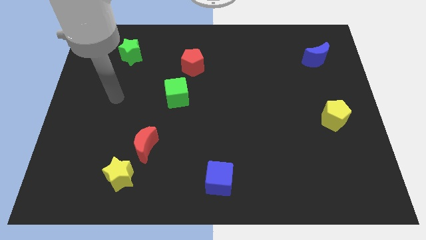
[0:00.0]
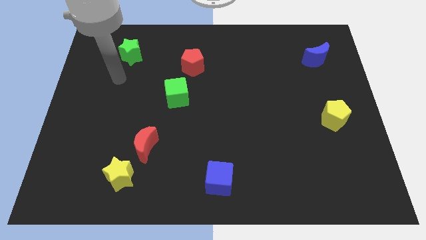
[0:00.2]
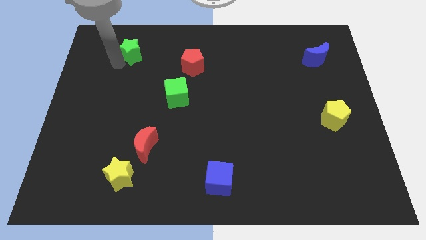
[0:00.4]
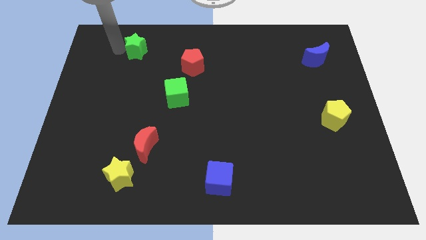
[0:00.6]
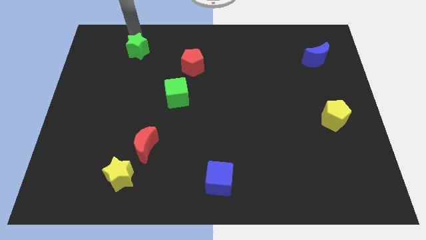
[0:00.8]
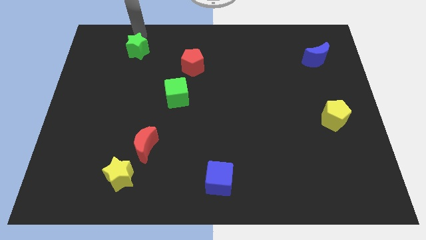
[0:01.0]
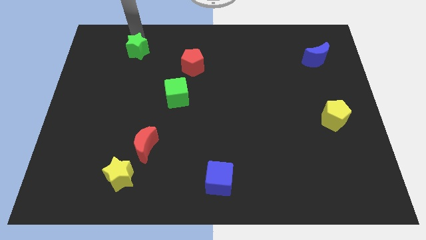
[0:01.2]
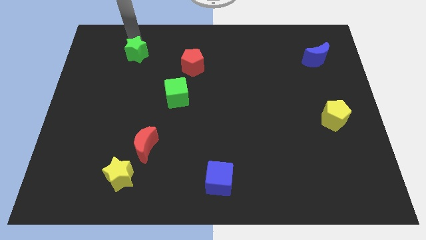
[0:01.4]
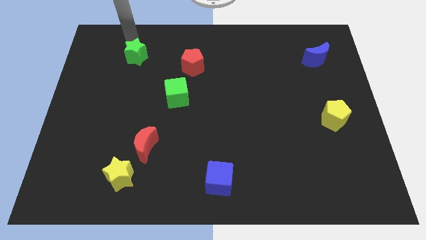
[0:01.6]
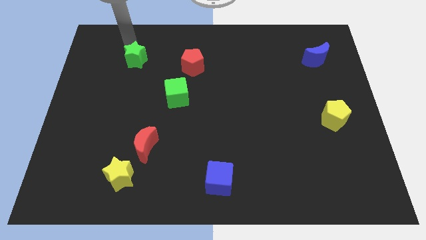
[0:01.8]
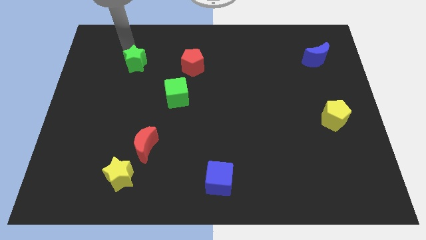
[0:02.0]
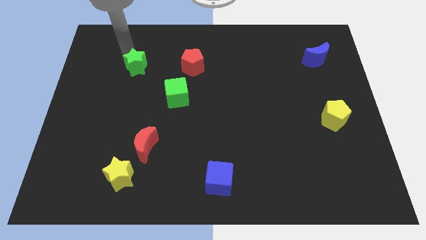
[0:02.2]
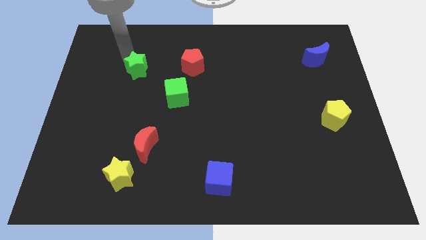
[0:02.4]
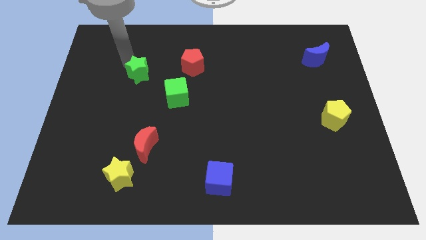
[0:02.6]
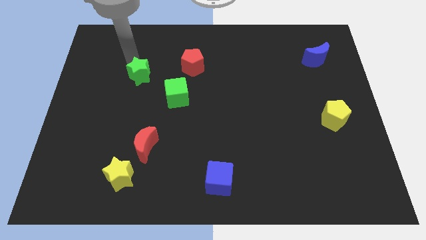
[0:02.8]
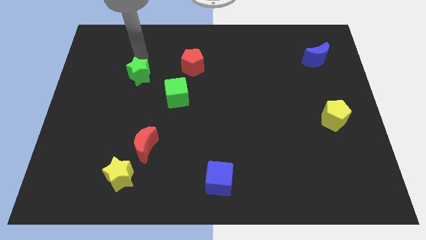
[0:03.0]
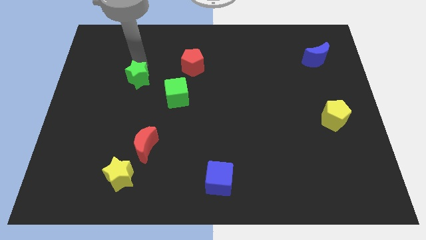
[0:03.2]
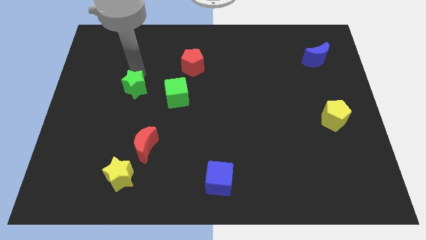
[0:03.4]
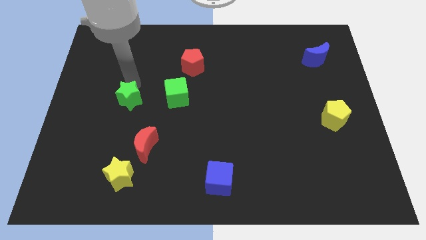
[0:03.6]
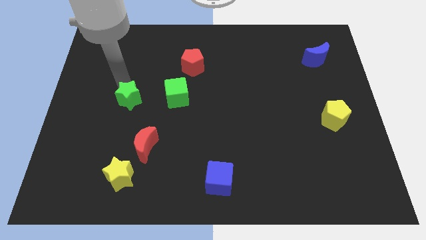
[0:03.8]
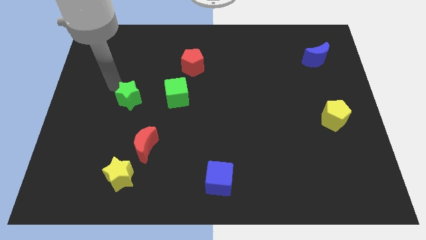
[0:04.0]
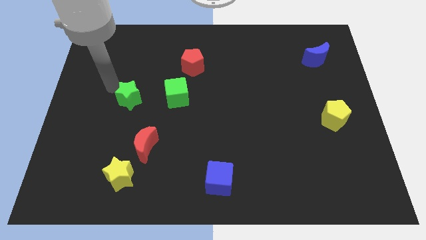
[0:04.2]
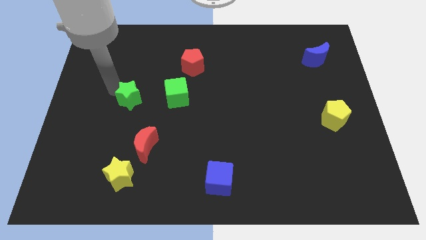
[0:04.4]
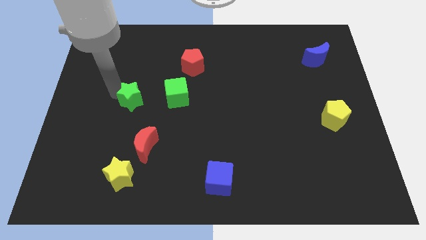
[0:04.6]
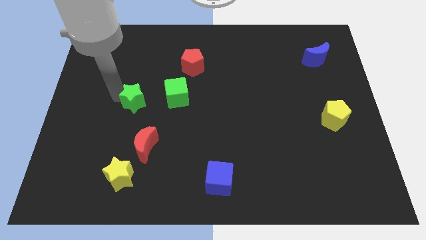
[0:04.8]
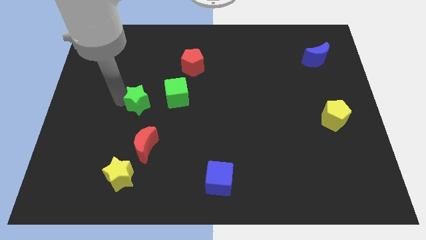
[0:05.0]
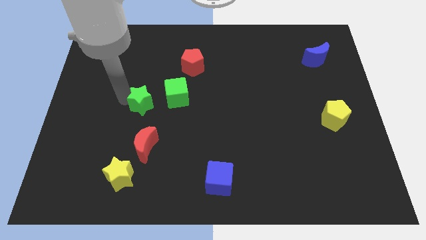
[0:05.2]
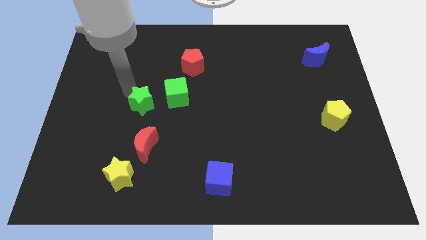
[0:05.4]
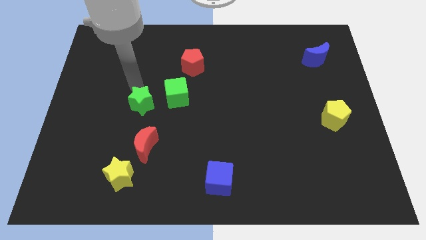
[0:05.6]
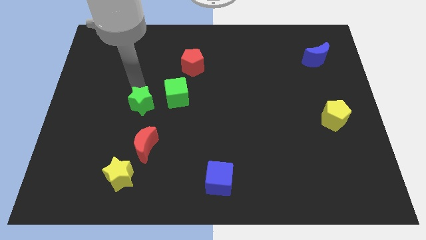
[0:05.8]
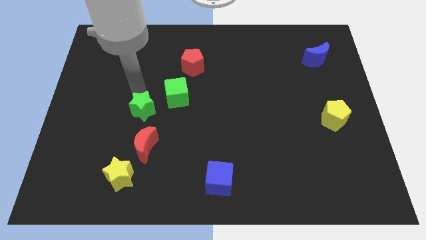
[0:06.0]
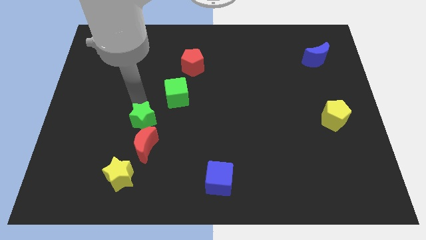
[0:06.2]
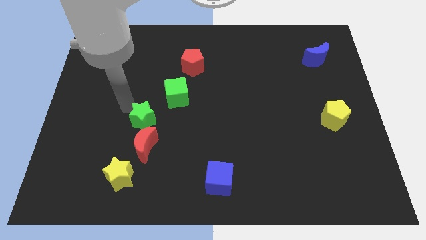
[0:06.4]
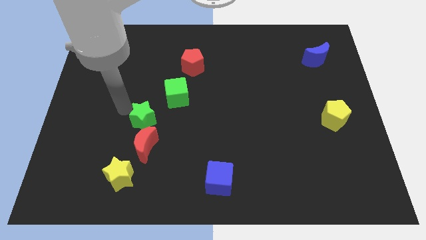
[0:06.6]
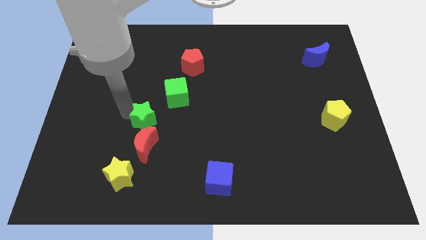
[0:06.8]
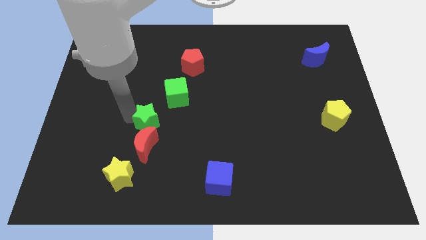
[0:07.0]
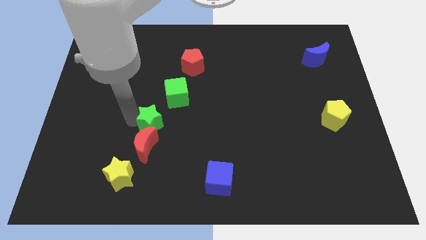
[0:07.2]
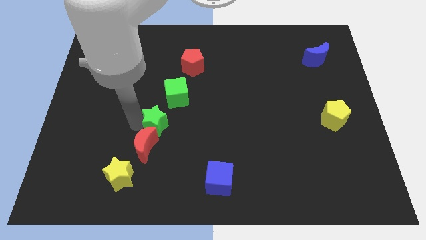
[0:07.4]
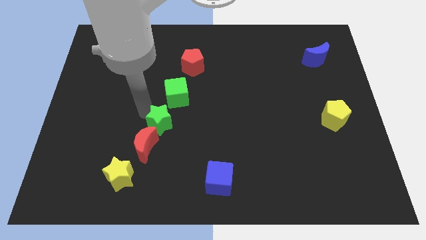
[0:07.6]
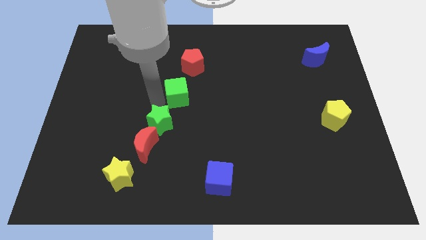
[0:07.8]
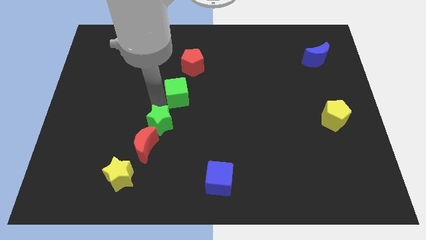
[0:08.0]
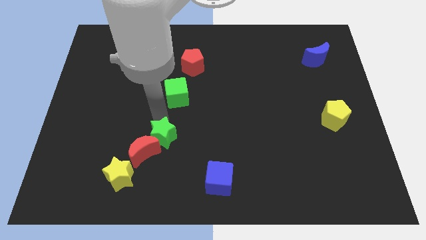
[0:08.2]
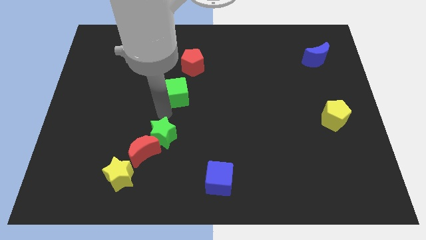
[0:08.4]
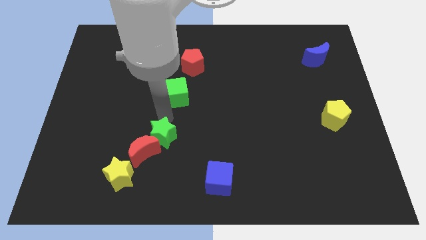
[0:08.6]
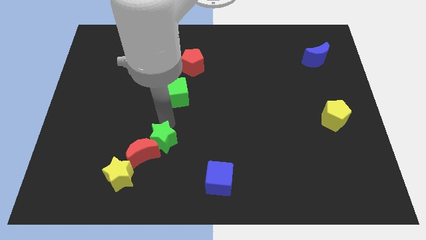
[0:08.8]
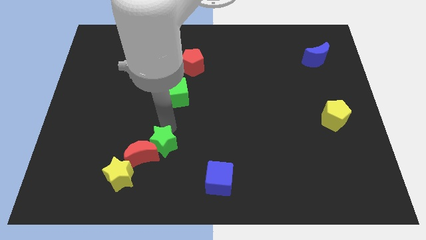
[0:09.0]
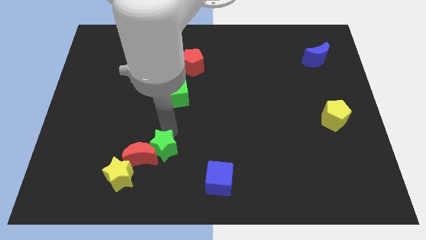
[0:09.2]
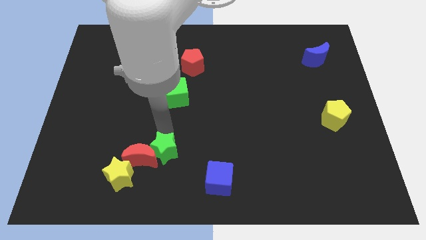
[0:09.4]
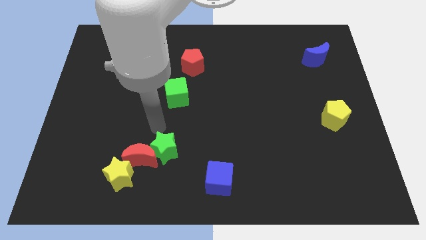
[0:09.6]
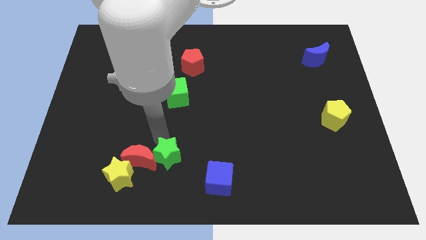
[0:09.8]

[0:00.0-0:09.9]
move the green star to the right side of the yellow star

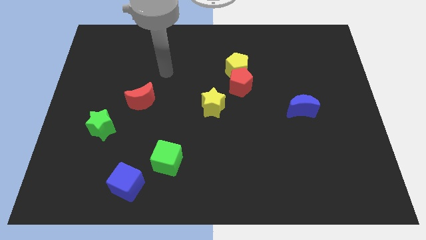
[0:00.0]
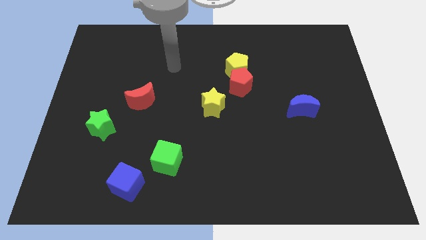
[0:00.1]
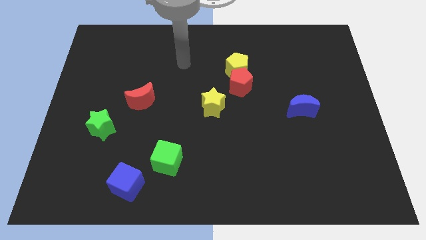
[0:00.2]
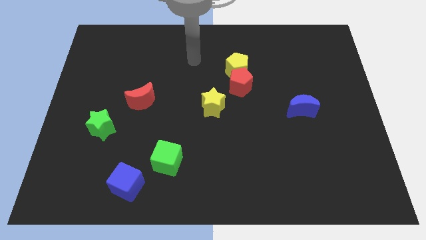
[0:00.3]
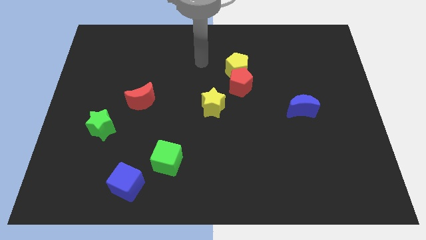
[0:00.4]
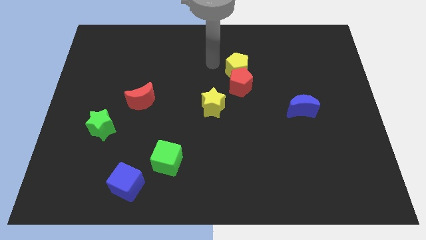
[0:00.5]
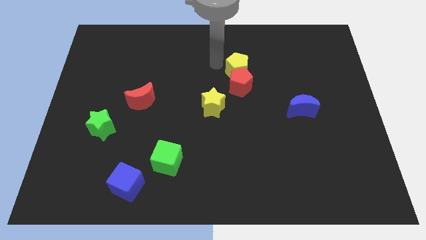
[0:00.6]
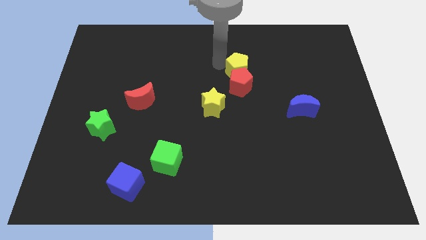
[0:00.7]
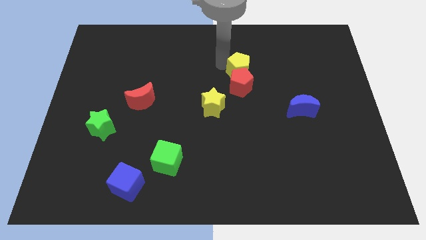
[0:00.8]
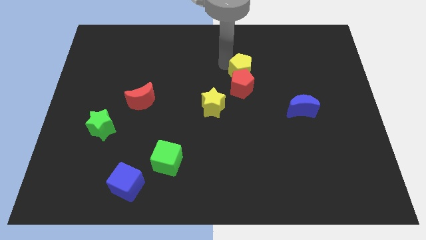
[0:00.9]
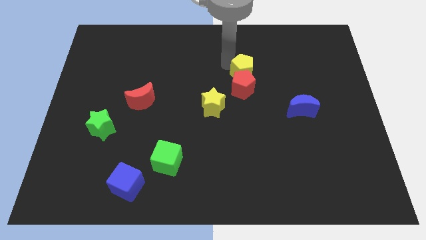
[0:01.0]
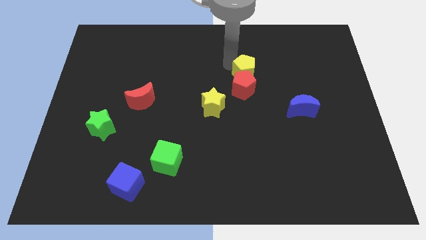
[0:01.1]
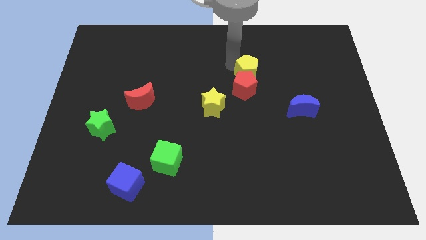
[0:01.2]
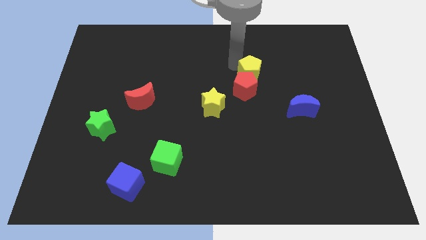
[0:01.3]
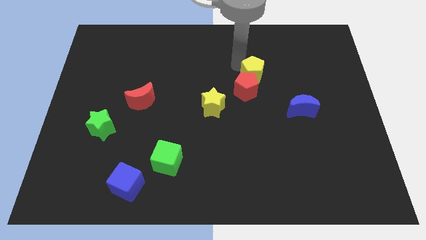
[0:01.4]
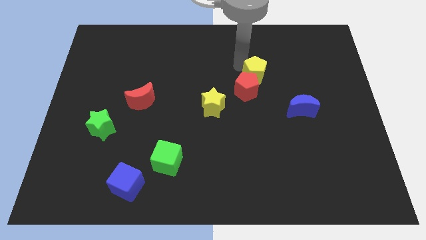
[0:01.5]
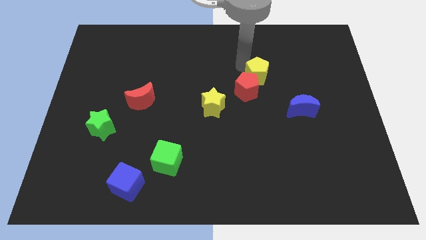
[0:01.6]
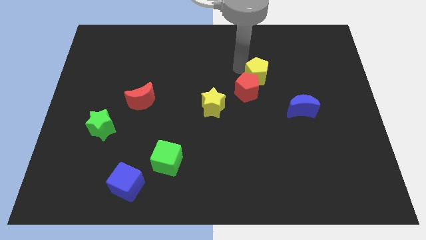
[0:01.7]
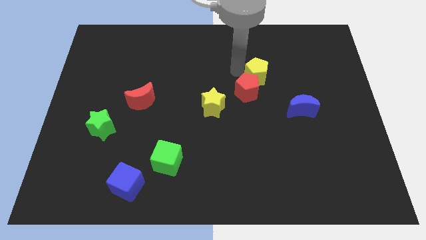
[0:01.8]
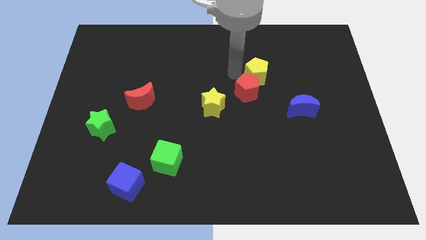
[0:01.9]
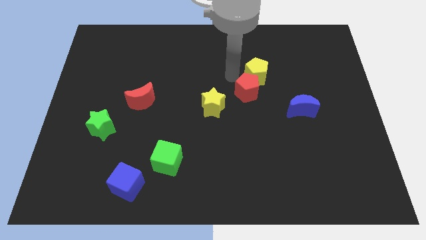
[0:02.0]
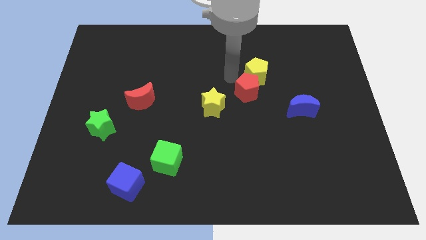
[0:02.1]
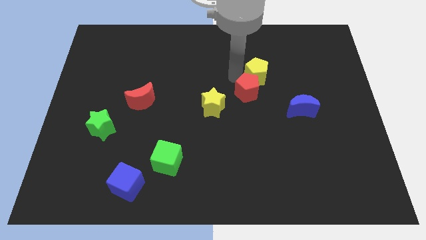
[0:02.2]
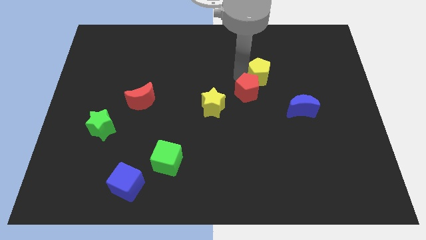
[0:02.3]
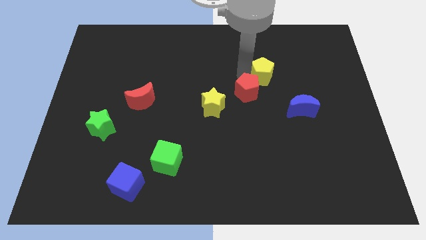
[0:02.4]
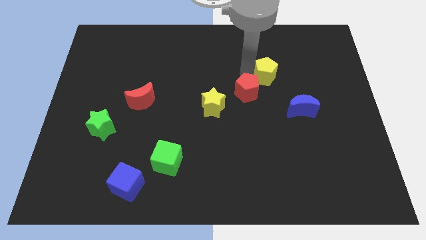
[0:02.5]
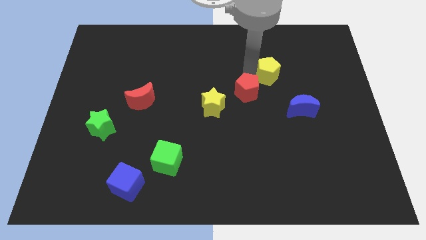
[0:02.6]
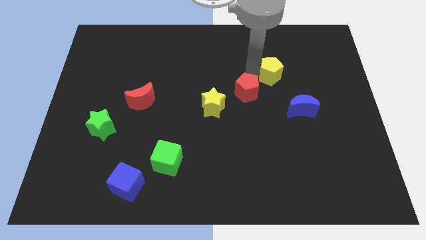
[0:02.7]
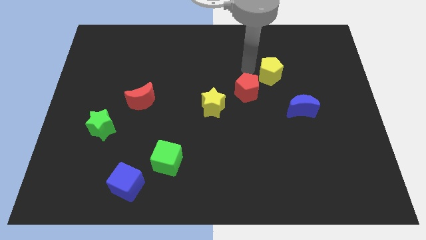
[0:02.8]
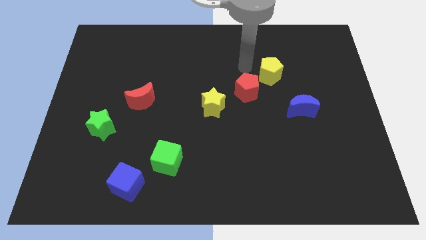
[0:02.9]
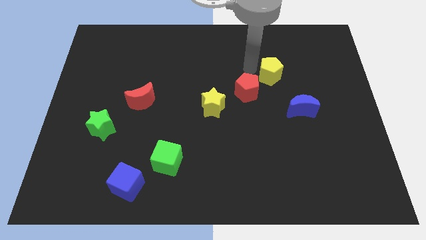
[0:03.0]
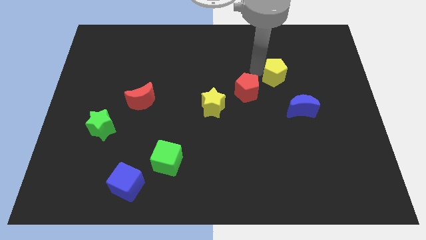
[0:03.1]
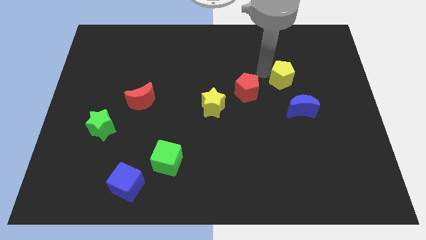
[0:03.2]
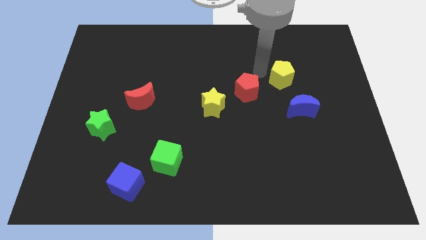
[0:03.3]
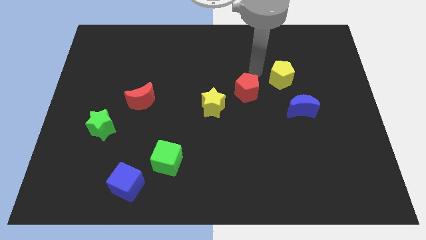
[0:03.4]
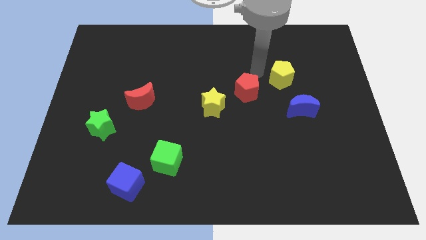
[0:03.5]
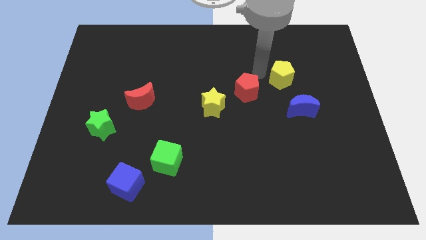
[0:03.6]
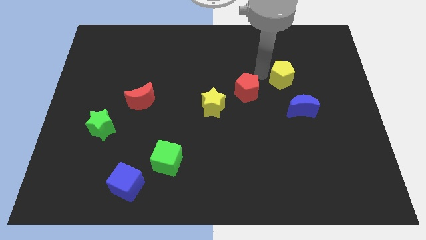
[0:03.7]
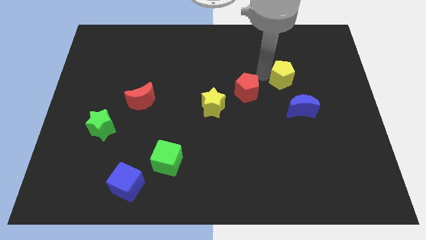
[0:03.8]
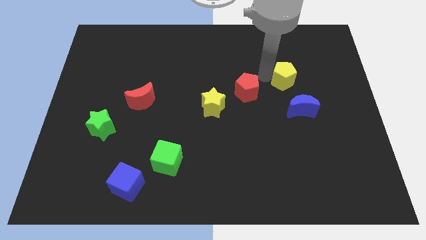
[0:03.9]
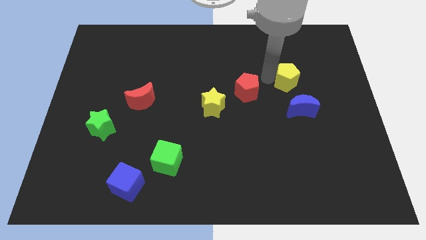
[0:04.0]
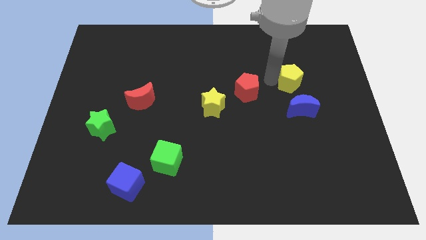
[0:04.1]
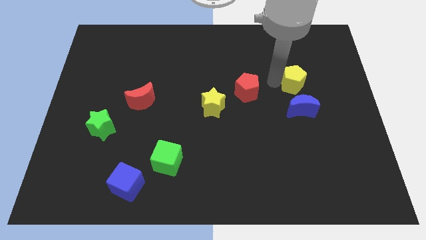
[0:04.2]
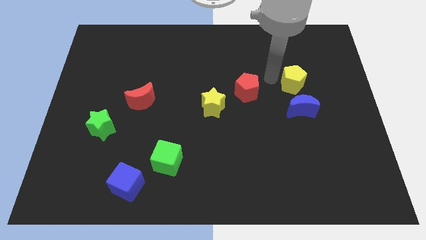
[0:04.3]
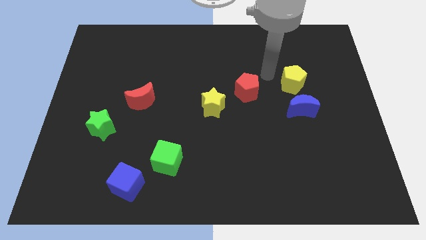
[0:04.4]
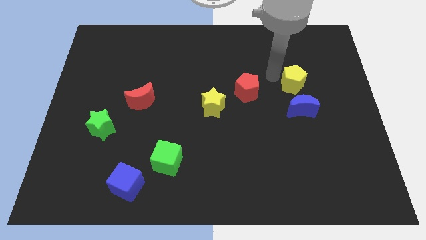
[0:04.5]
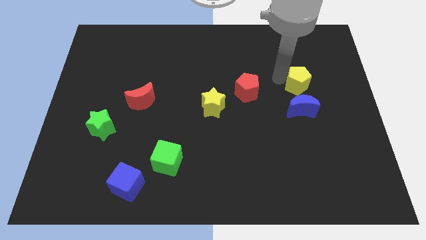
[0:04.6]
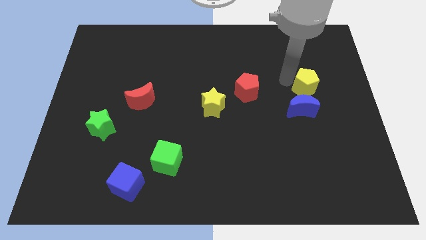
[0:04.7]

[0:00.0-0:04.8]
put the yellow pentagon diagonally up and to the right of the blue moon
